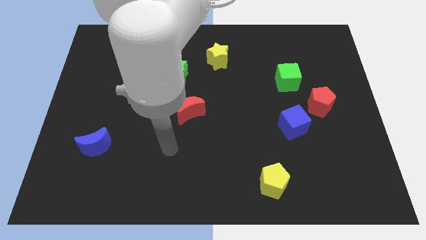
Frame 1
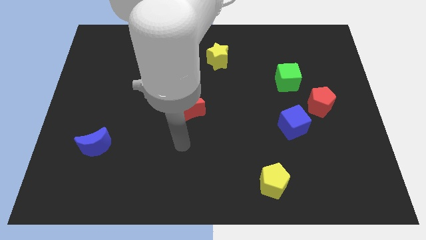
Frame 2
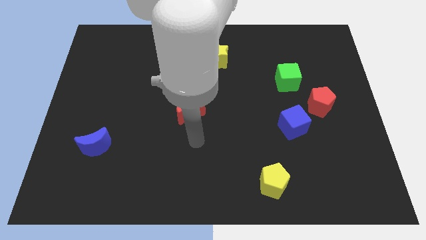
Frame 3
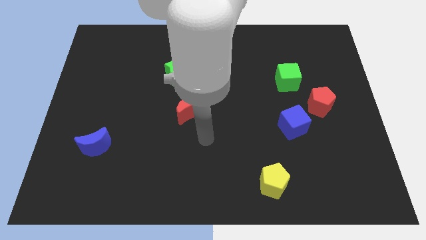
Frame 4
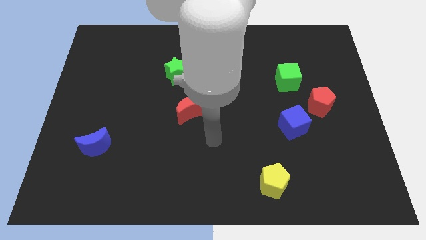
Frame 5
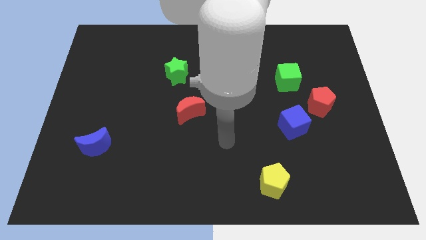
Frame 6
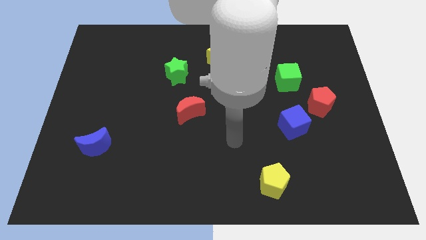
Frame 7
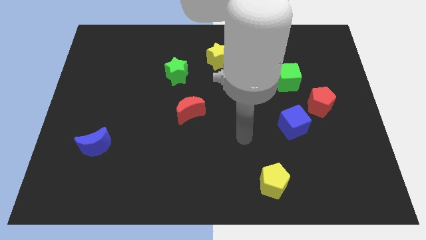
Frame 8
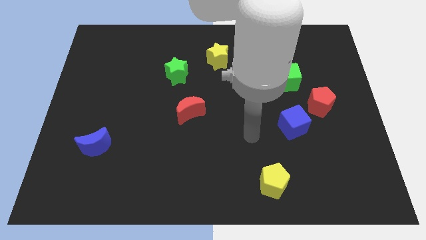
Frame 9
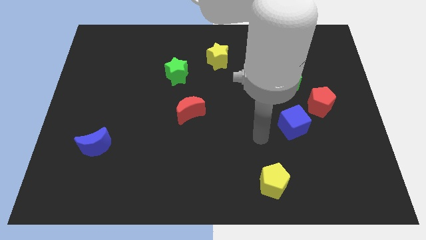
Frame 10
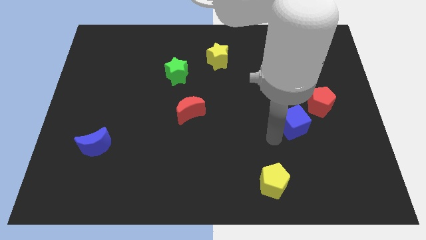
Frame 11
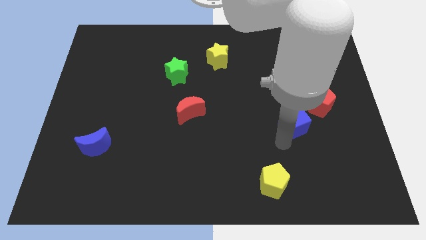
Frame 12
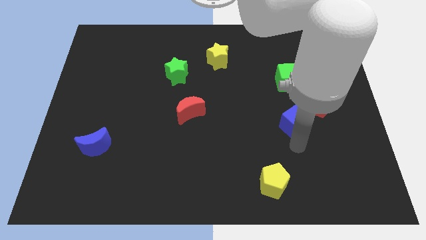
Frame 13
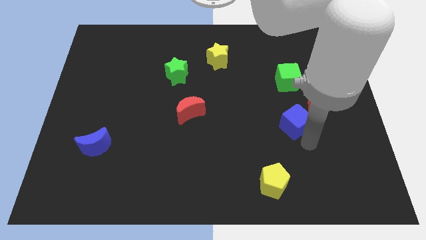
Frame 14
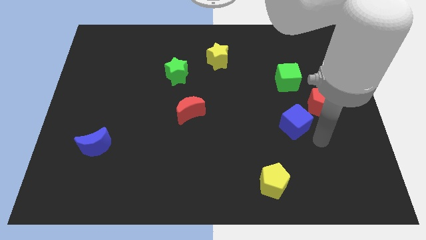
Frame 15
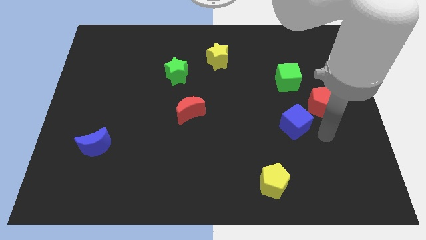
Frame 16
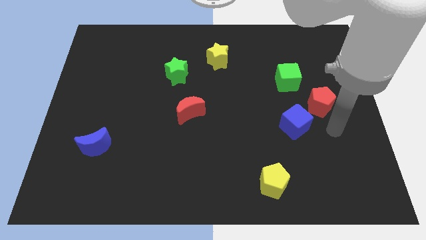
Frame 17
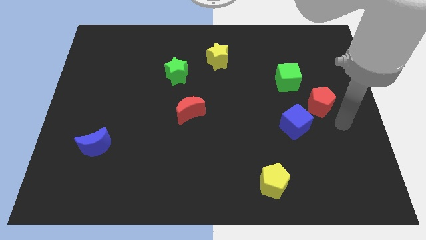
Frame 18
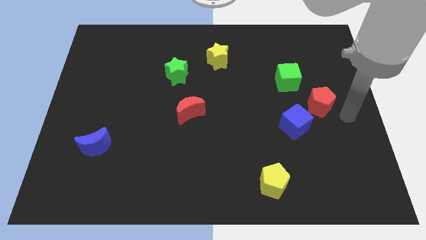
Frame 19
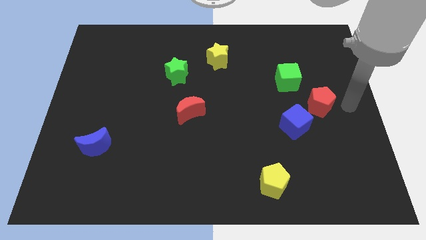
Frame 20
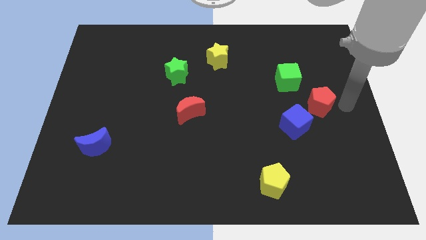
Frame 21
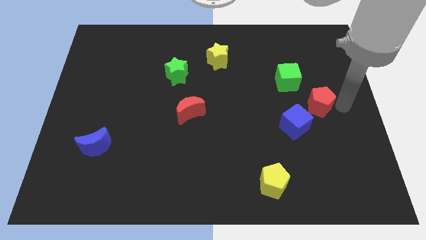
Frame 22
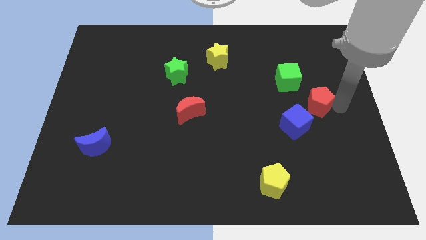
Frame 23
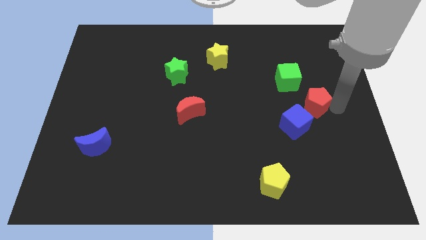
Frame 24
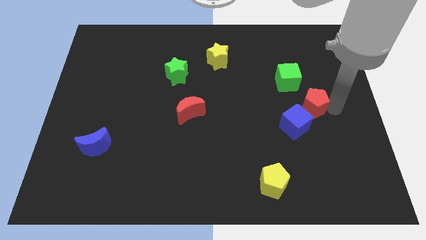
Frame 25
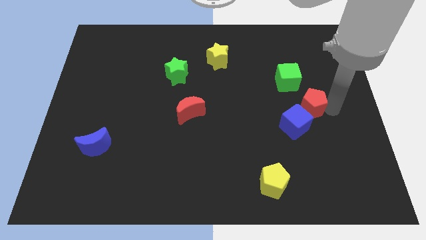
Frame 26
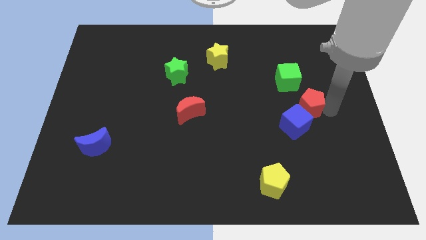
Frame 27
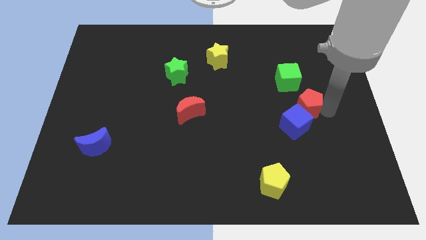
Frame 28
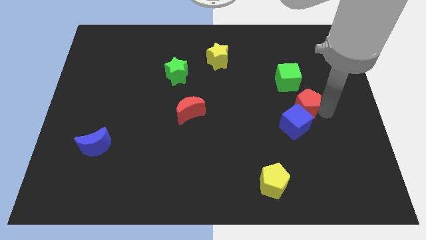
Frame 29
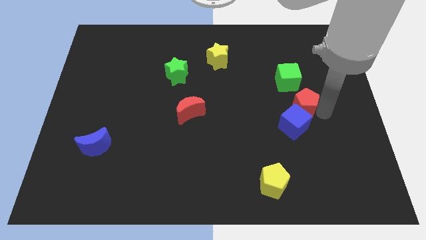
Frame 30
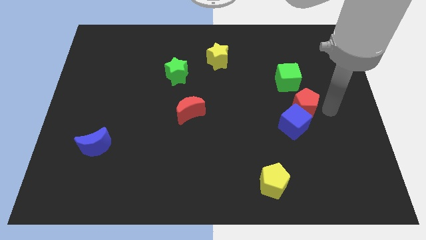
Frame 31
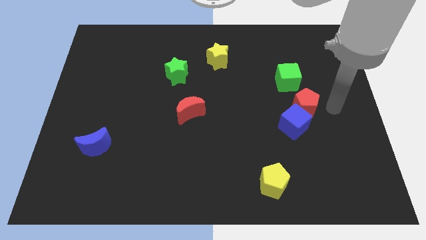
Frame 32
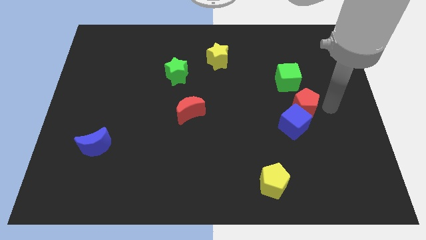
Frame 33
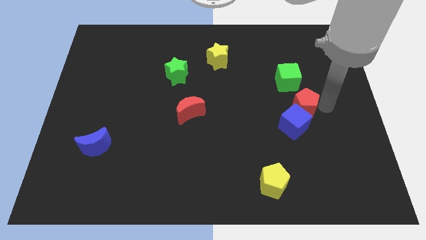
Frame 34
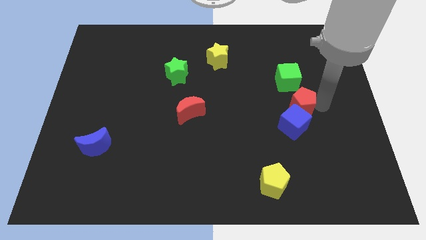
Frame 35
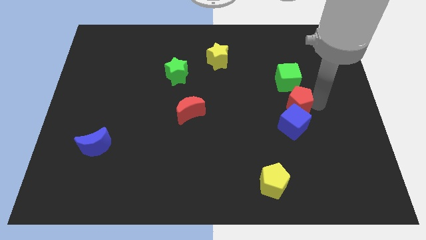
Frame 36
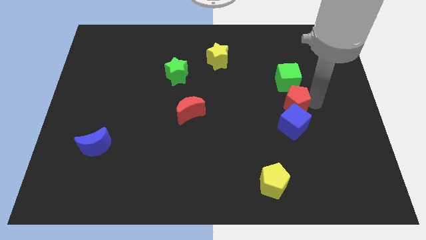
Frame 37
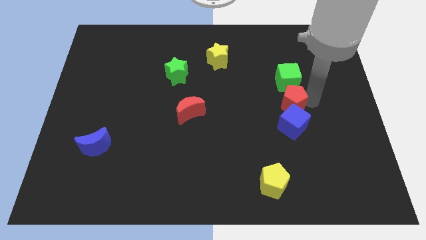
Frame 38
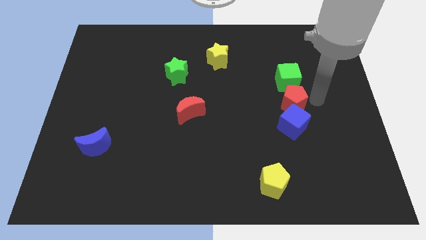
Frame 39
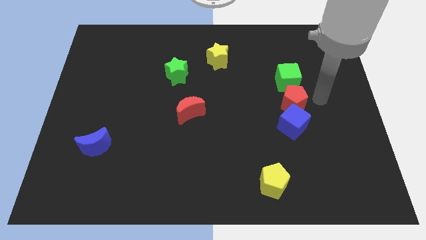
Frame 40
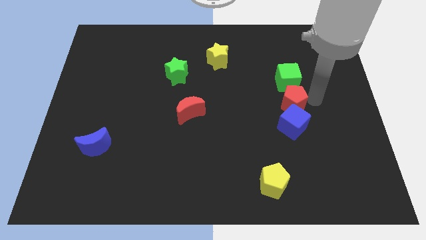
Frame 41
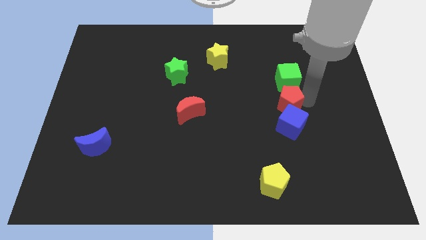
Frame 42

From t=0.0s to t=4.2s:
slide the red pentagon somewhat to the left

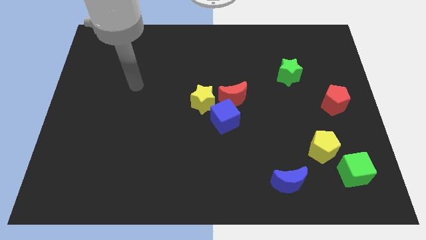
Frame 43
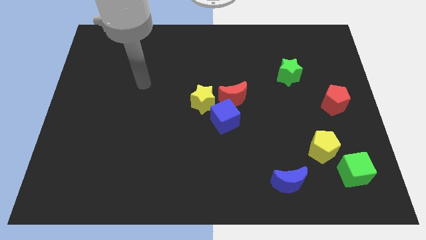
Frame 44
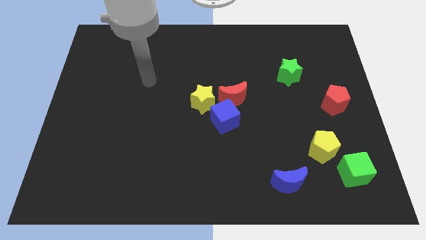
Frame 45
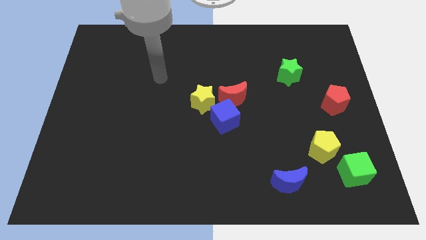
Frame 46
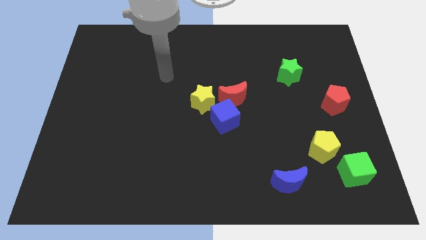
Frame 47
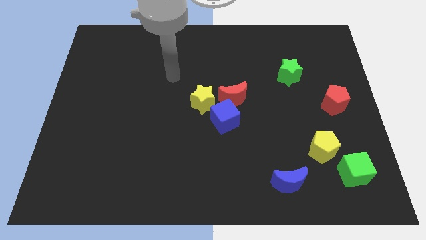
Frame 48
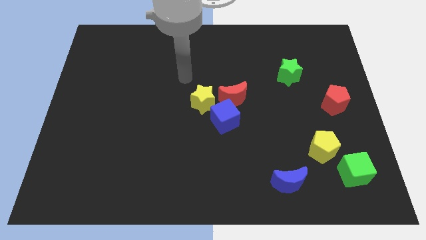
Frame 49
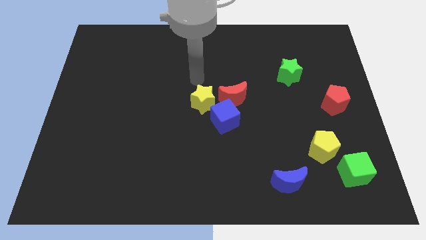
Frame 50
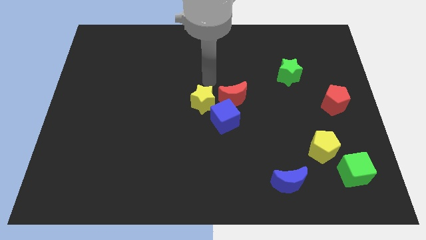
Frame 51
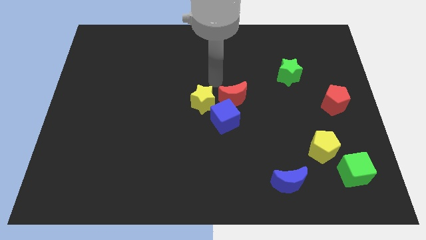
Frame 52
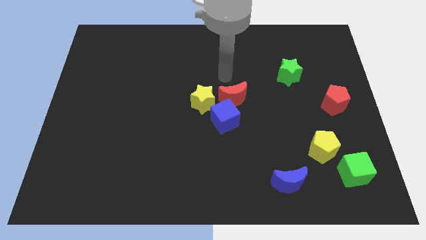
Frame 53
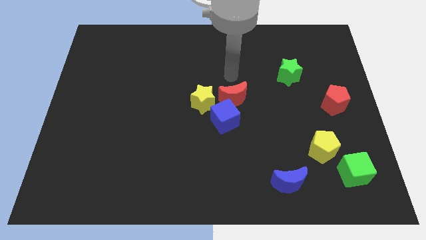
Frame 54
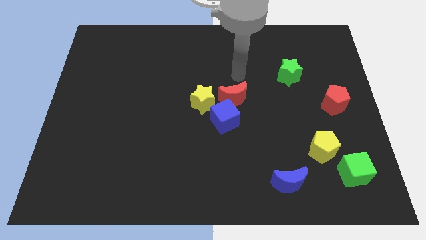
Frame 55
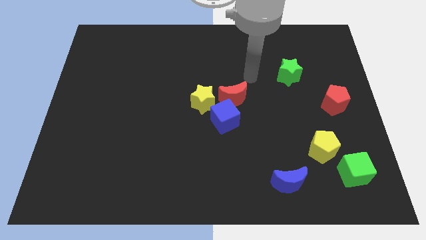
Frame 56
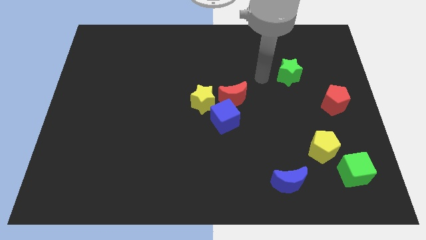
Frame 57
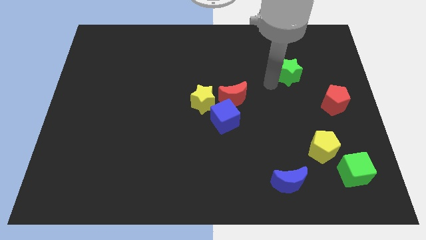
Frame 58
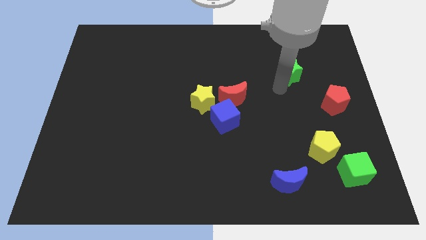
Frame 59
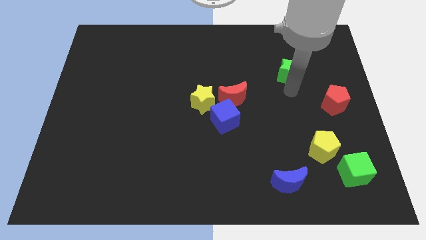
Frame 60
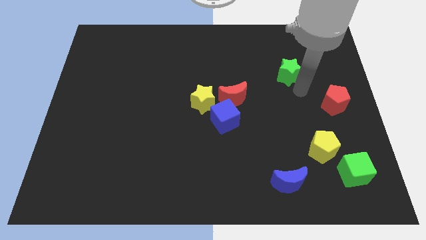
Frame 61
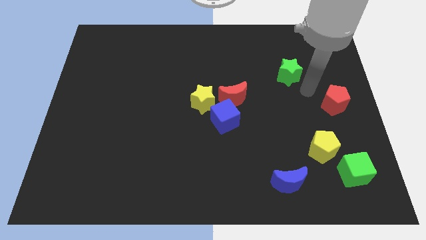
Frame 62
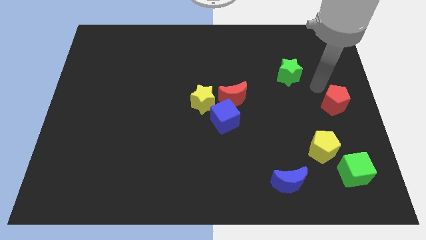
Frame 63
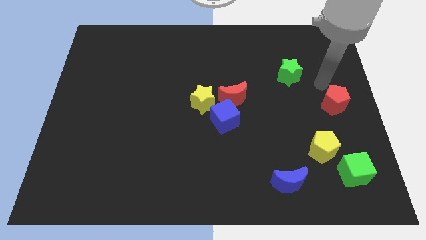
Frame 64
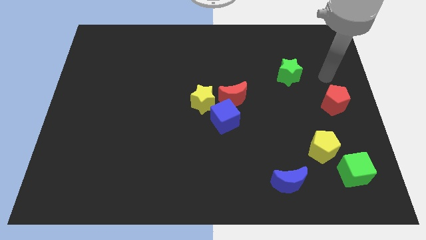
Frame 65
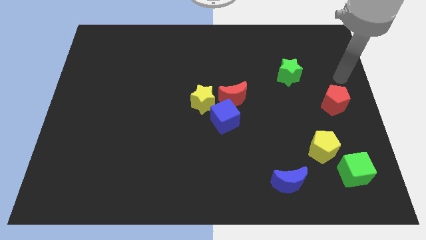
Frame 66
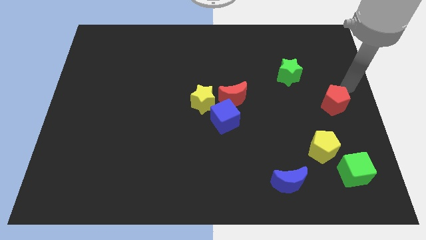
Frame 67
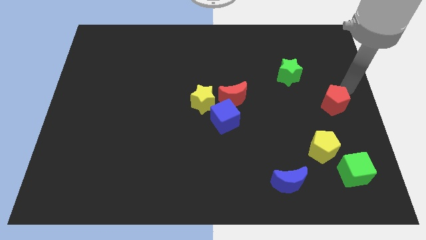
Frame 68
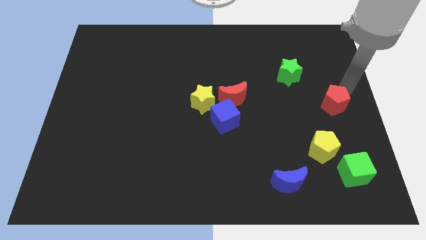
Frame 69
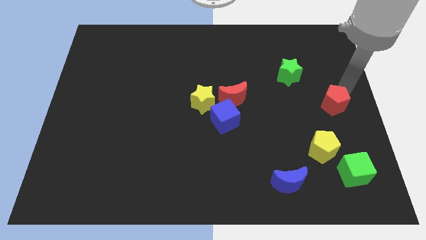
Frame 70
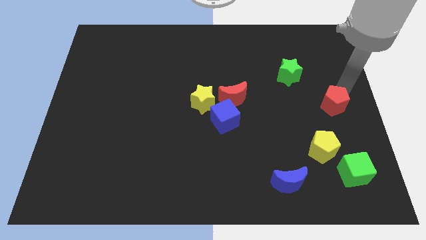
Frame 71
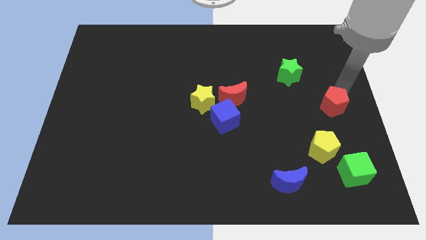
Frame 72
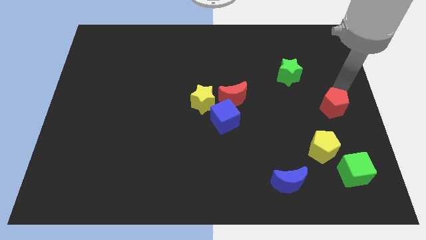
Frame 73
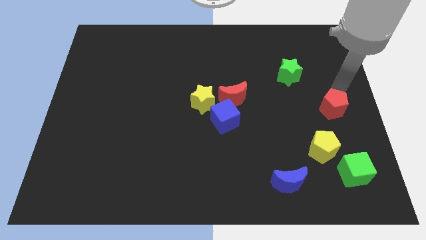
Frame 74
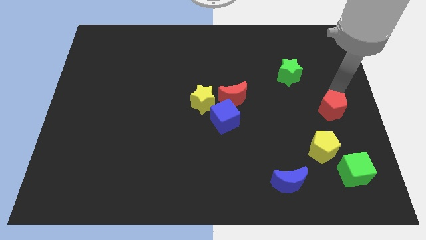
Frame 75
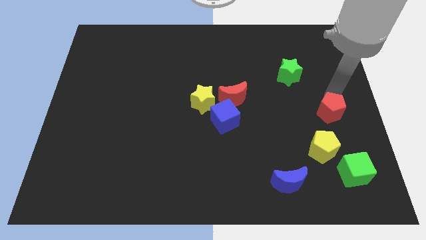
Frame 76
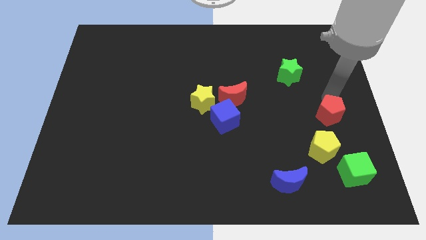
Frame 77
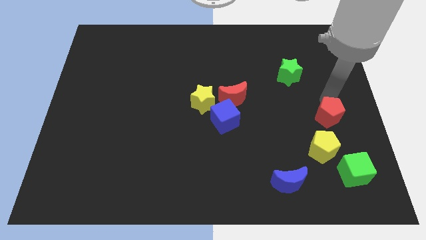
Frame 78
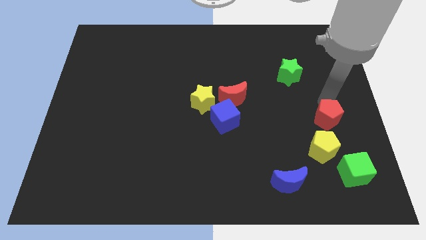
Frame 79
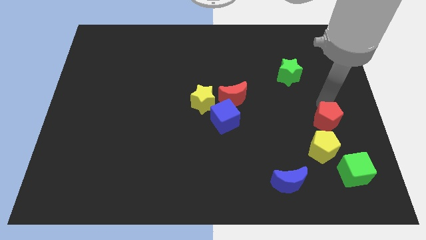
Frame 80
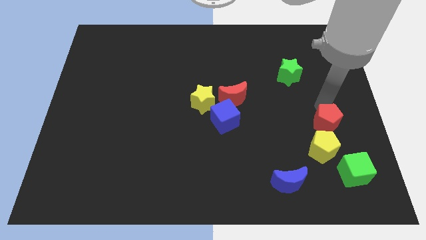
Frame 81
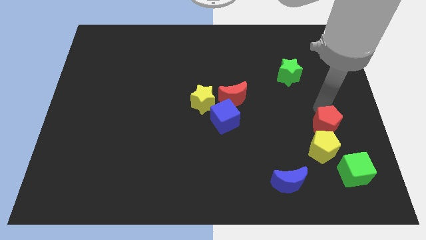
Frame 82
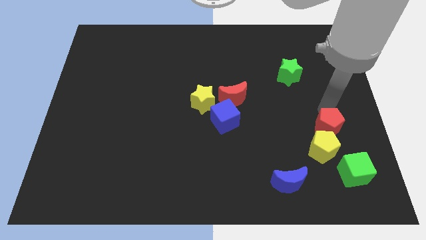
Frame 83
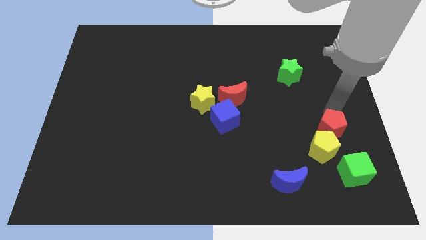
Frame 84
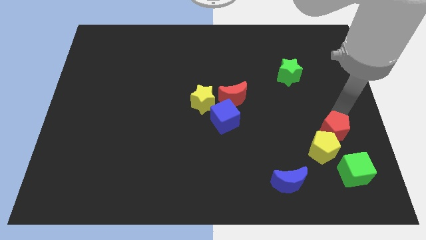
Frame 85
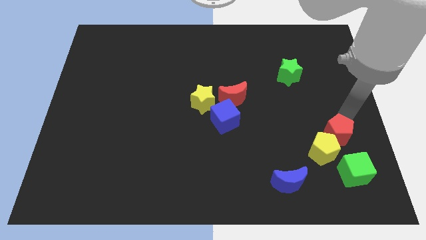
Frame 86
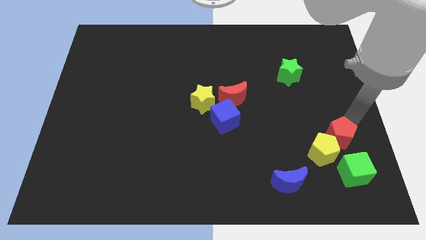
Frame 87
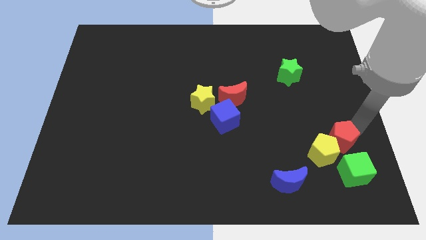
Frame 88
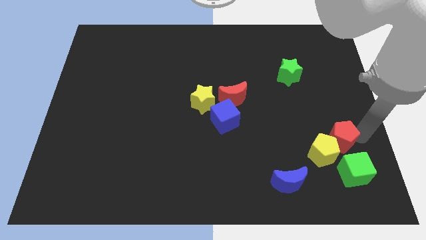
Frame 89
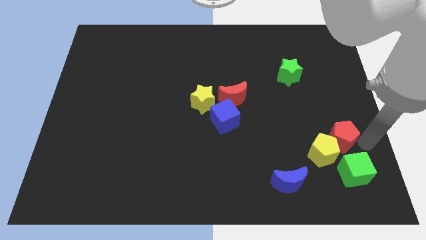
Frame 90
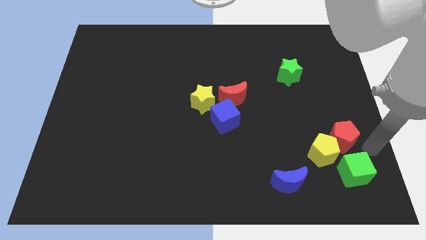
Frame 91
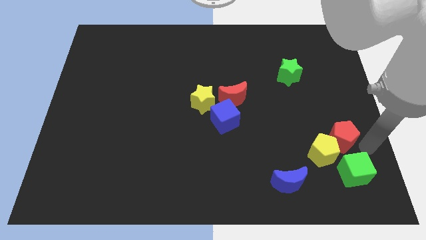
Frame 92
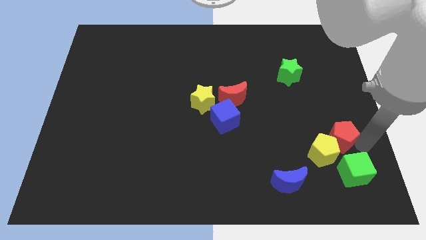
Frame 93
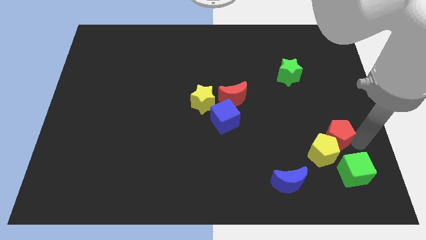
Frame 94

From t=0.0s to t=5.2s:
move the red pentagon down and left a little bit
